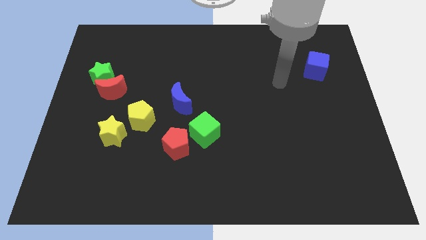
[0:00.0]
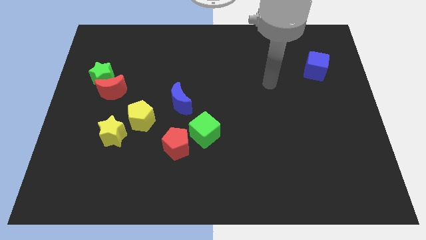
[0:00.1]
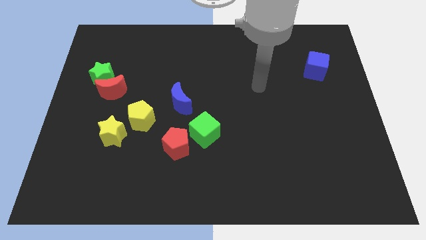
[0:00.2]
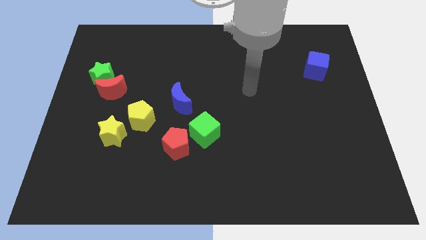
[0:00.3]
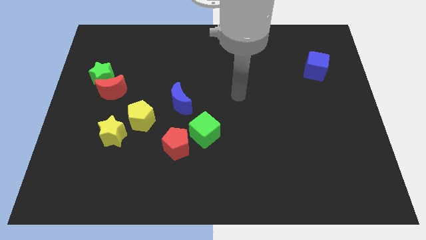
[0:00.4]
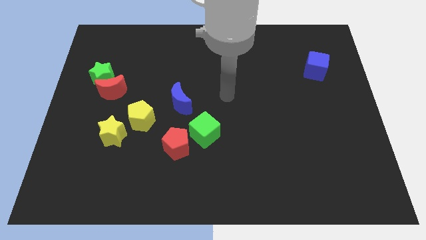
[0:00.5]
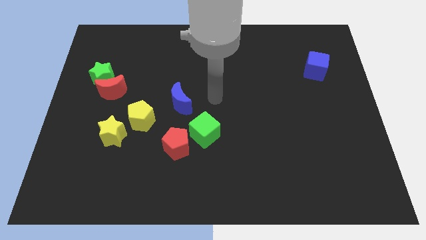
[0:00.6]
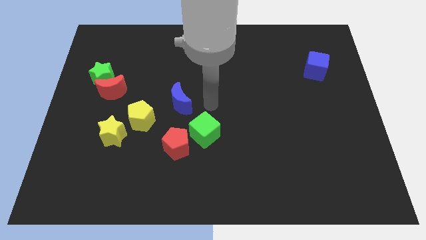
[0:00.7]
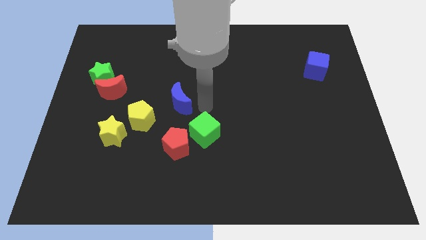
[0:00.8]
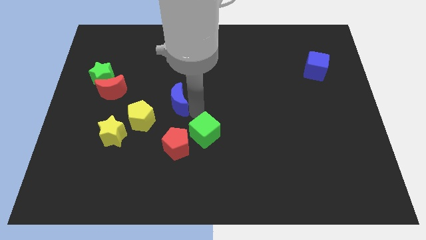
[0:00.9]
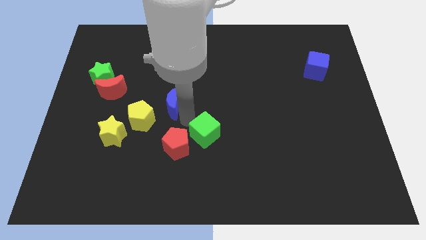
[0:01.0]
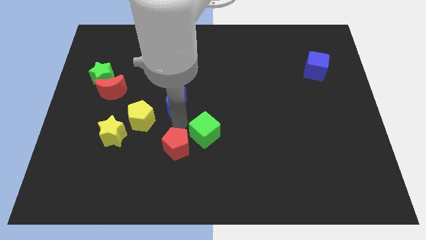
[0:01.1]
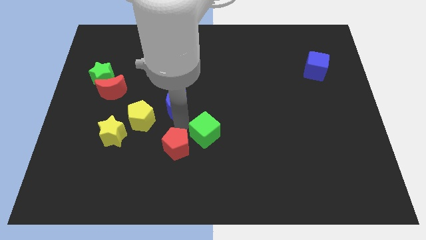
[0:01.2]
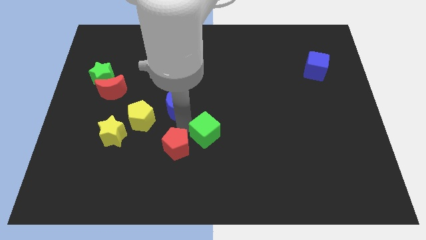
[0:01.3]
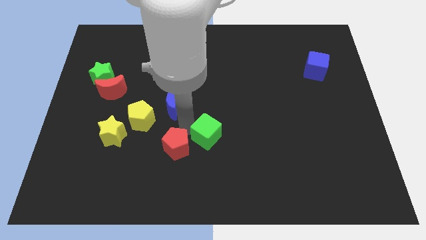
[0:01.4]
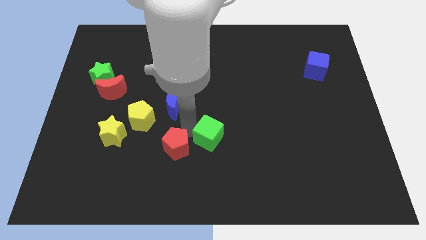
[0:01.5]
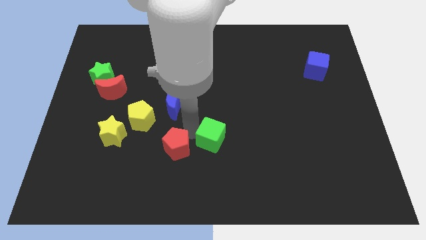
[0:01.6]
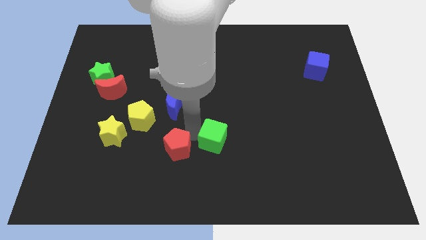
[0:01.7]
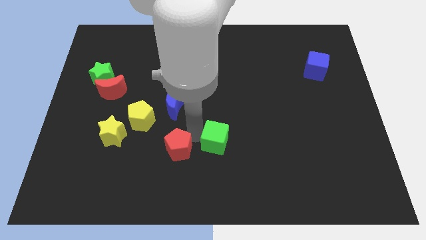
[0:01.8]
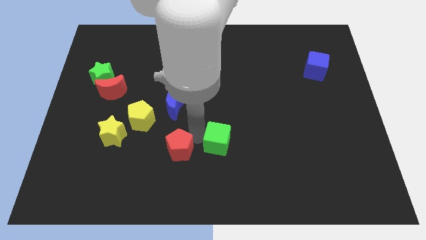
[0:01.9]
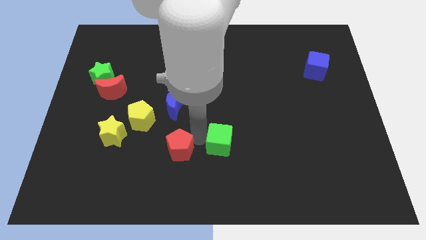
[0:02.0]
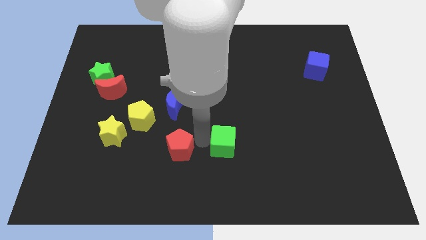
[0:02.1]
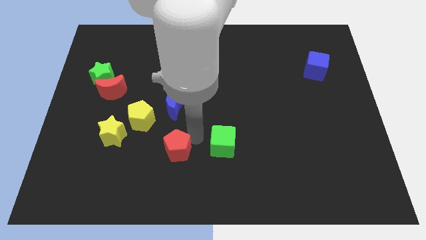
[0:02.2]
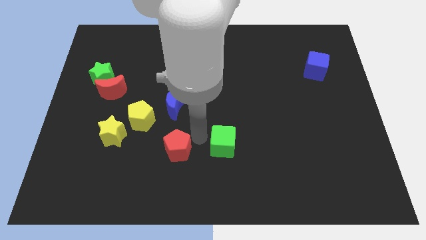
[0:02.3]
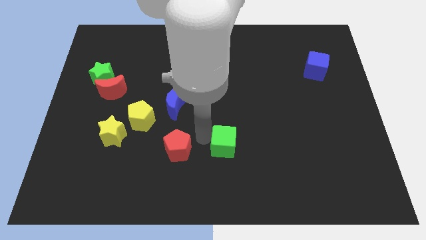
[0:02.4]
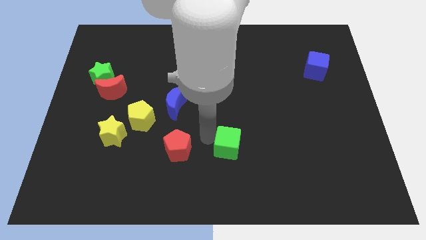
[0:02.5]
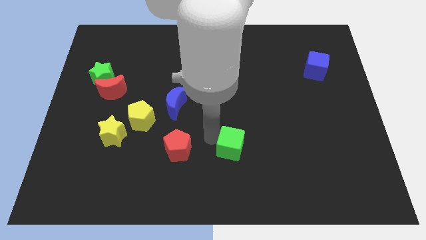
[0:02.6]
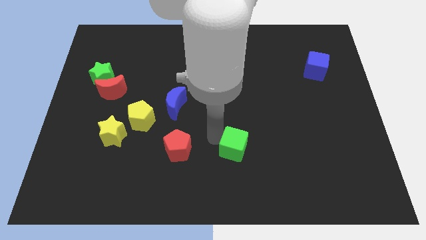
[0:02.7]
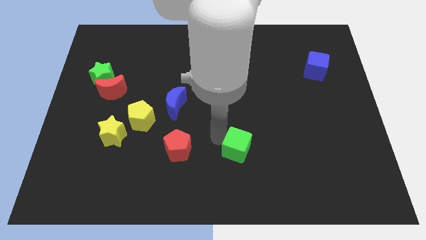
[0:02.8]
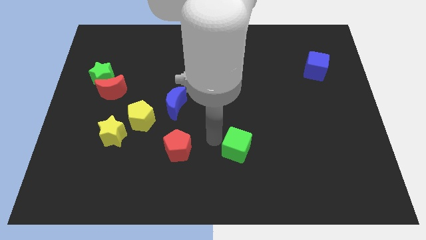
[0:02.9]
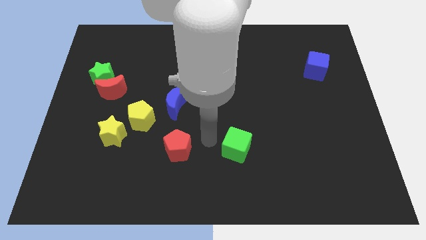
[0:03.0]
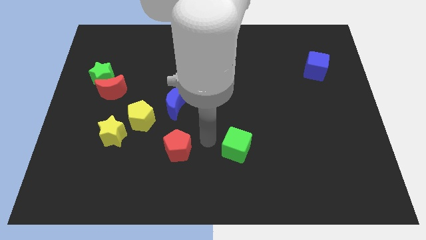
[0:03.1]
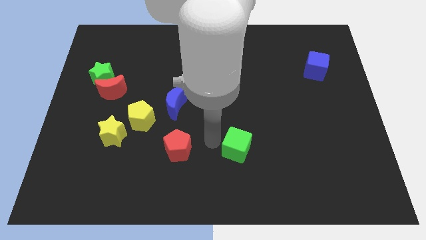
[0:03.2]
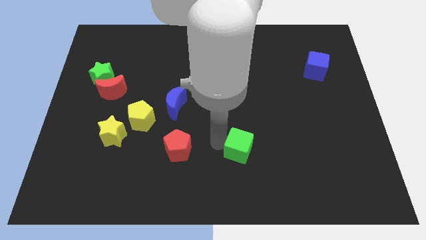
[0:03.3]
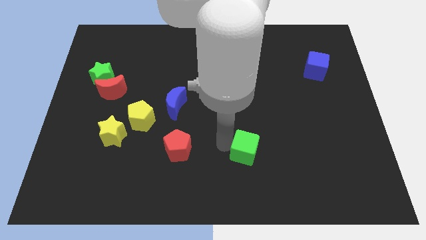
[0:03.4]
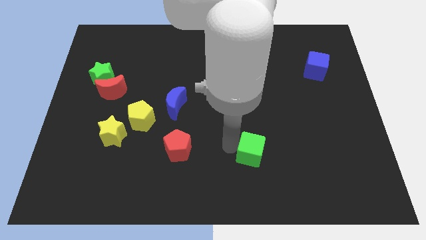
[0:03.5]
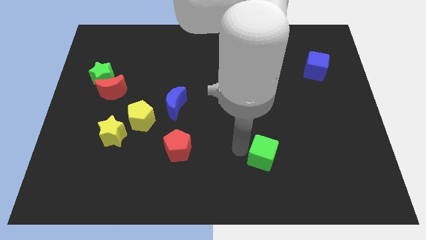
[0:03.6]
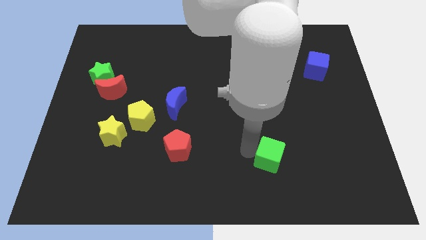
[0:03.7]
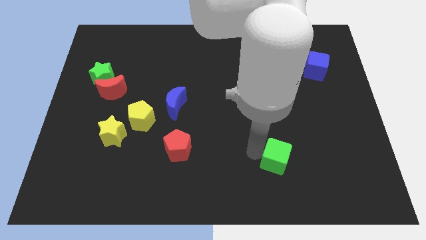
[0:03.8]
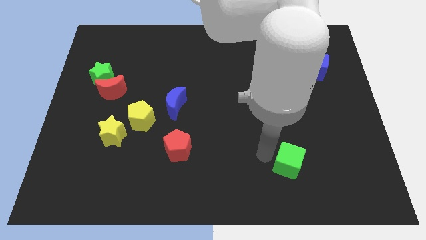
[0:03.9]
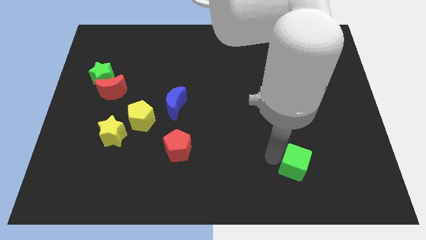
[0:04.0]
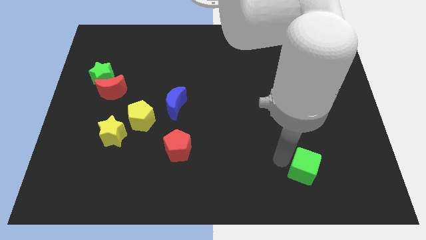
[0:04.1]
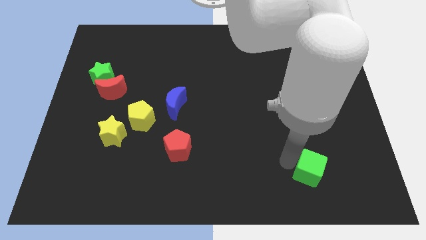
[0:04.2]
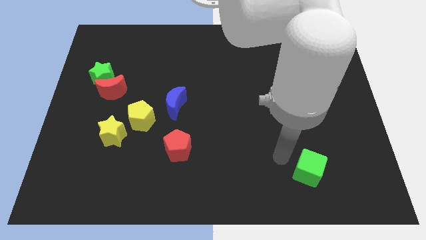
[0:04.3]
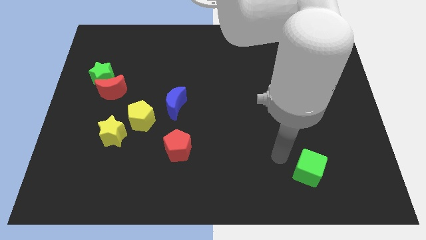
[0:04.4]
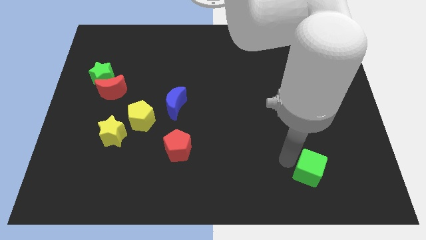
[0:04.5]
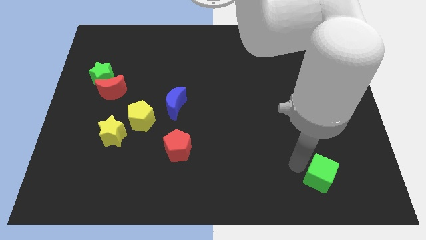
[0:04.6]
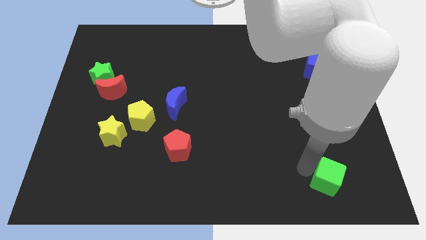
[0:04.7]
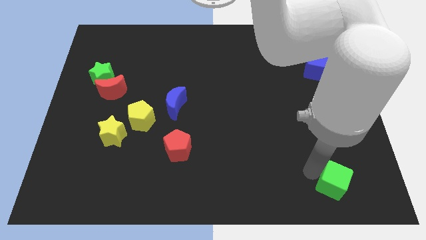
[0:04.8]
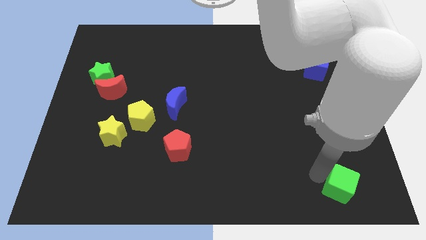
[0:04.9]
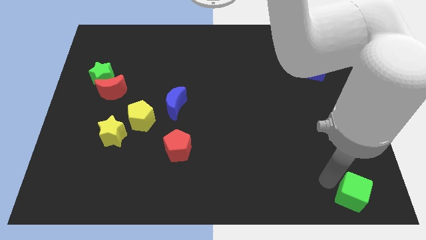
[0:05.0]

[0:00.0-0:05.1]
push the green cube to the lower right corner

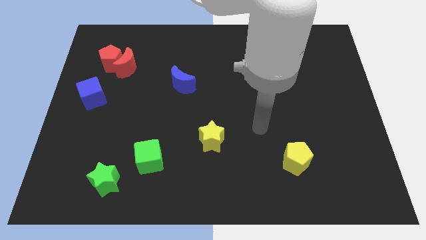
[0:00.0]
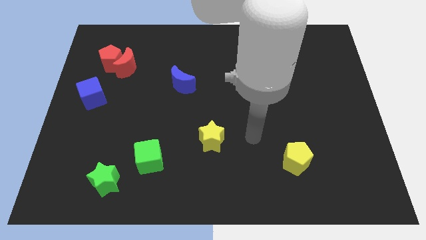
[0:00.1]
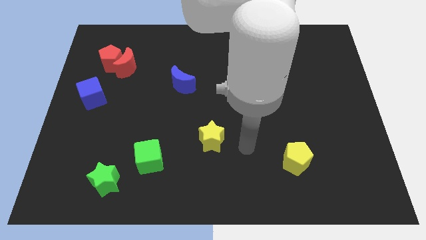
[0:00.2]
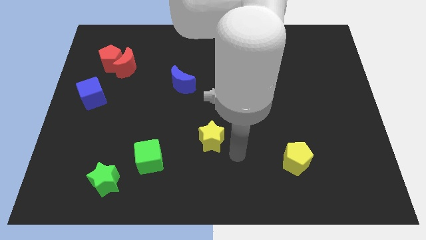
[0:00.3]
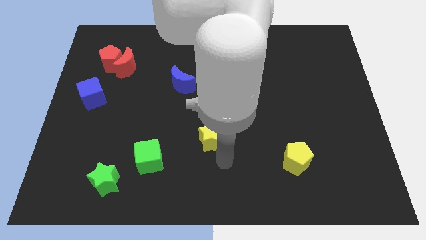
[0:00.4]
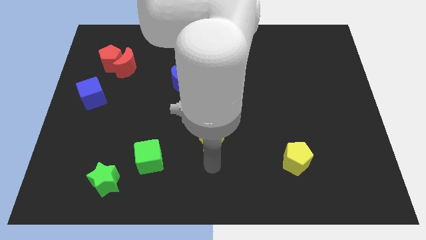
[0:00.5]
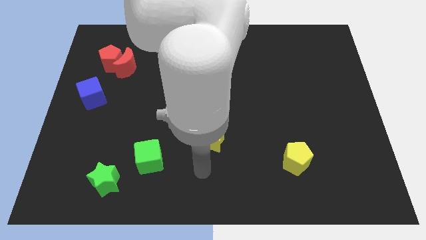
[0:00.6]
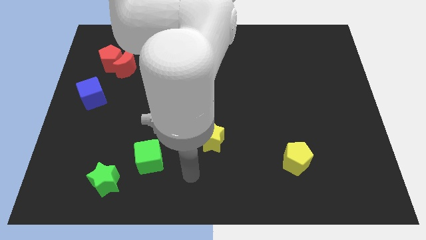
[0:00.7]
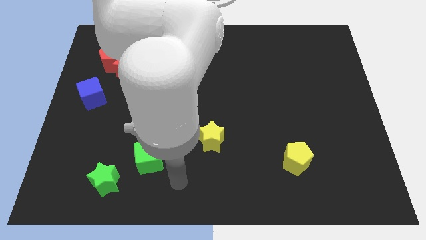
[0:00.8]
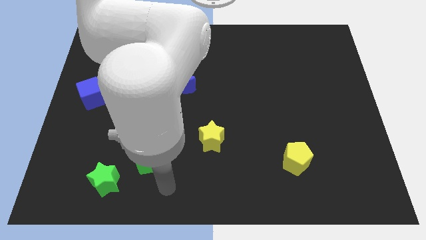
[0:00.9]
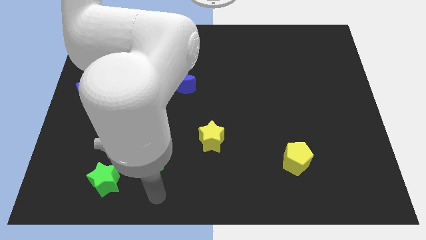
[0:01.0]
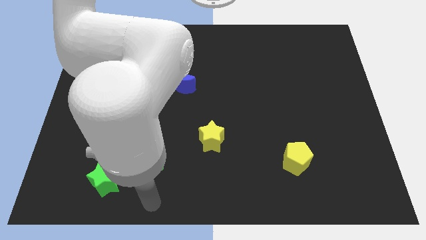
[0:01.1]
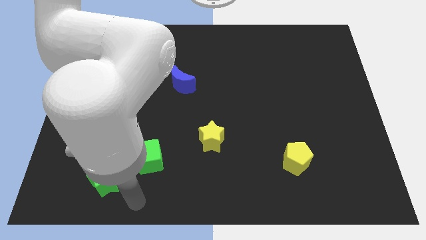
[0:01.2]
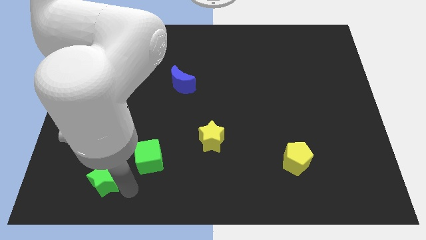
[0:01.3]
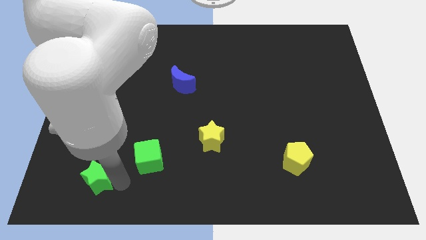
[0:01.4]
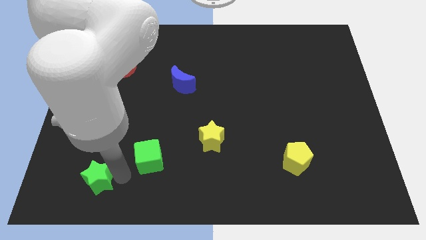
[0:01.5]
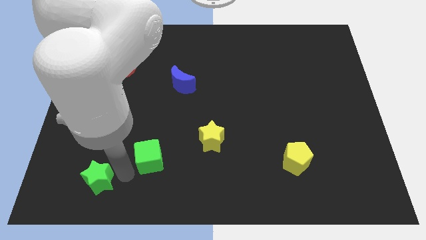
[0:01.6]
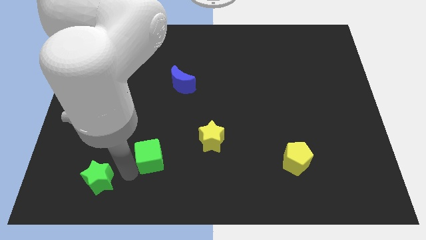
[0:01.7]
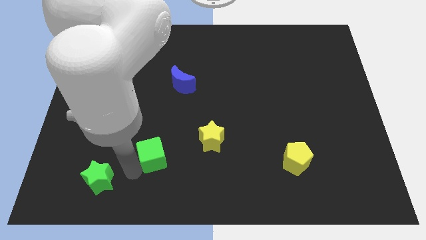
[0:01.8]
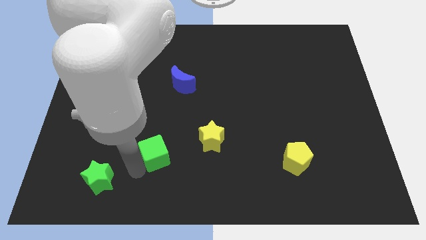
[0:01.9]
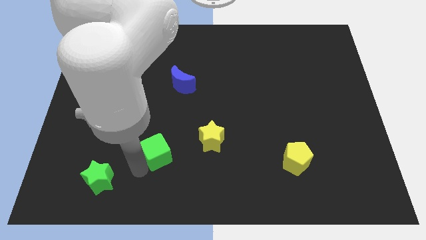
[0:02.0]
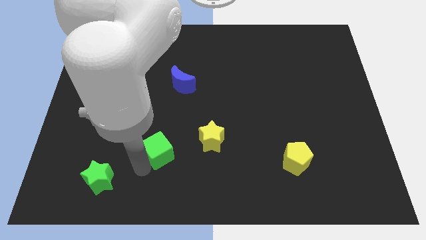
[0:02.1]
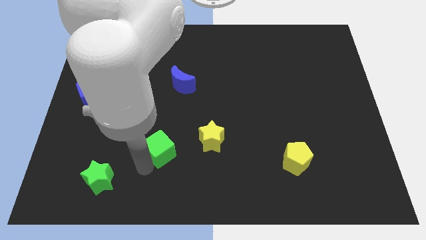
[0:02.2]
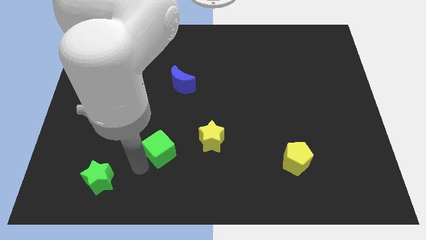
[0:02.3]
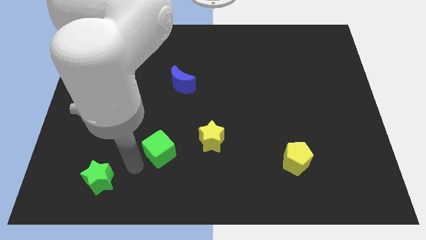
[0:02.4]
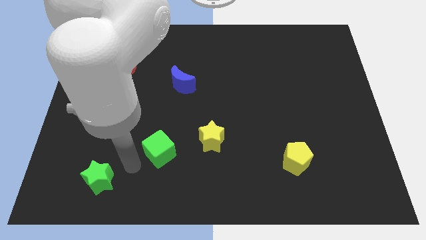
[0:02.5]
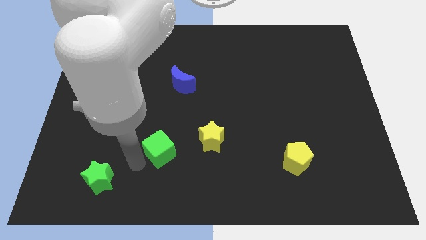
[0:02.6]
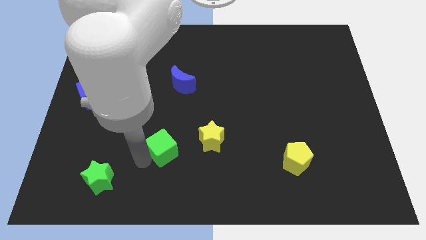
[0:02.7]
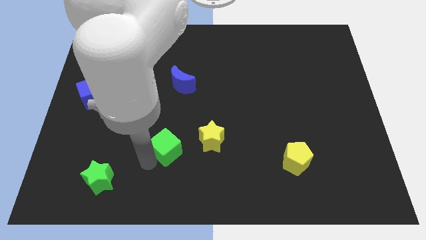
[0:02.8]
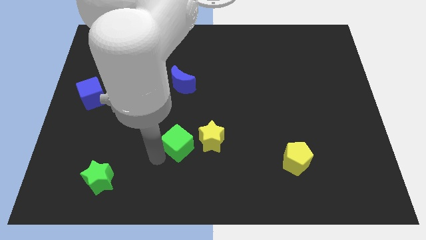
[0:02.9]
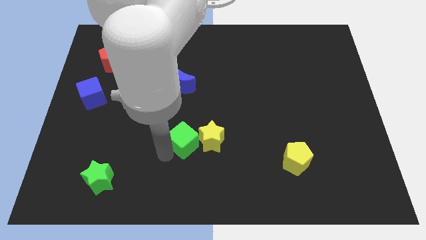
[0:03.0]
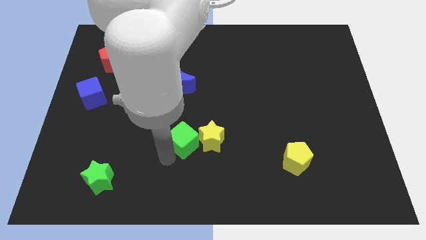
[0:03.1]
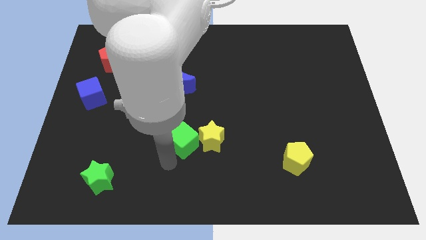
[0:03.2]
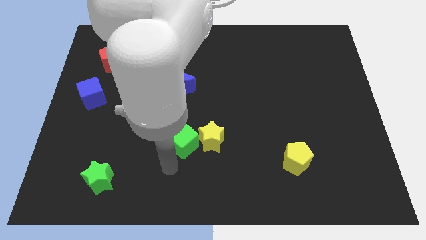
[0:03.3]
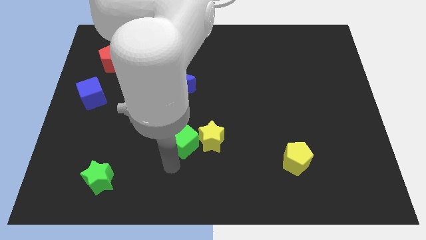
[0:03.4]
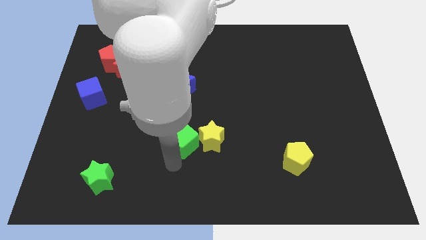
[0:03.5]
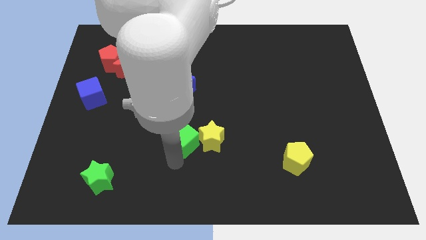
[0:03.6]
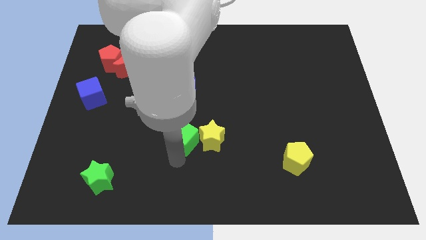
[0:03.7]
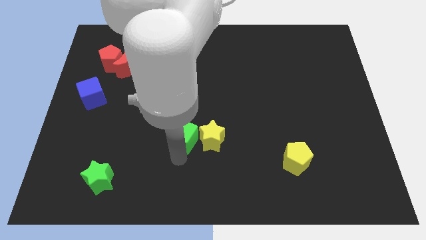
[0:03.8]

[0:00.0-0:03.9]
move the green cube to the middle of the board
